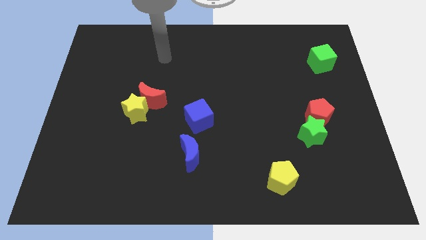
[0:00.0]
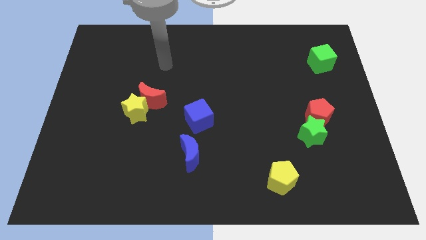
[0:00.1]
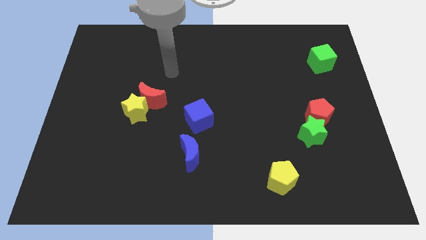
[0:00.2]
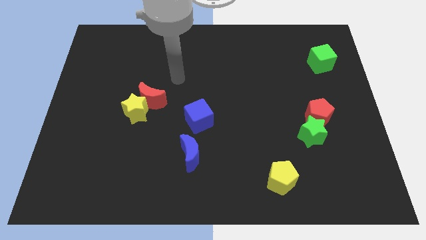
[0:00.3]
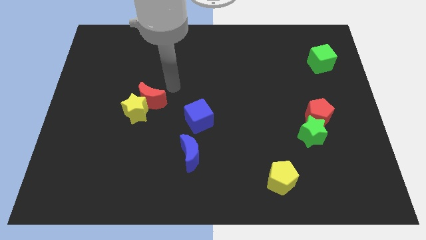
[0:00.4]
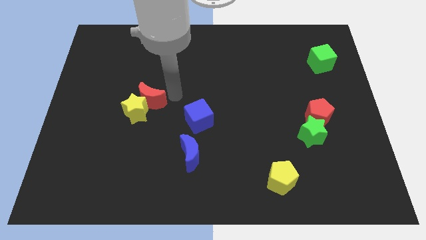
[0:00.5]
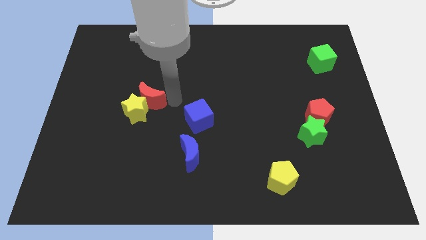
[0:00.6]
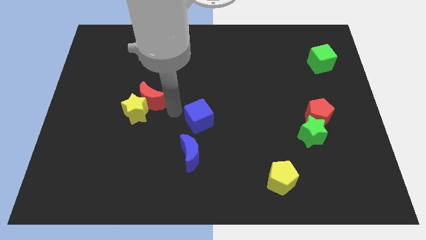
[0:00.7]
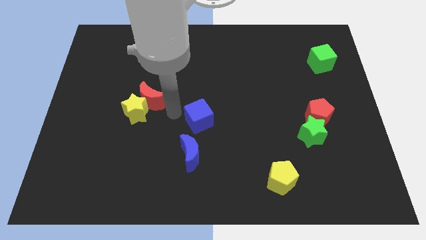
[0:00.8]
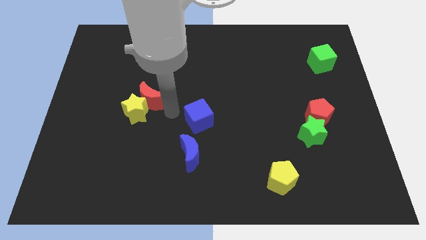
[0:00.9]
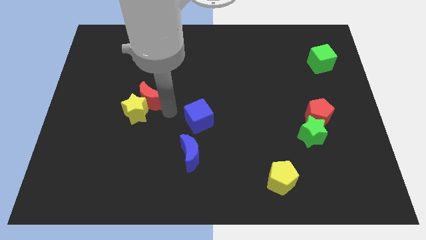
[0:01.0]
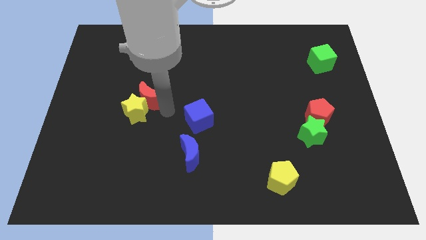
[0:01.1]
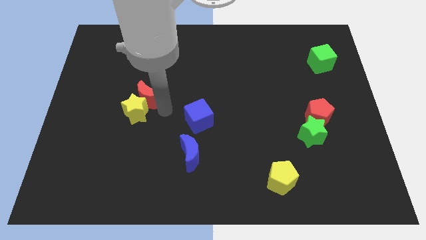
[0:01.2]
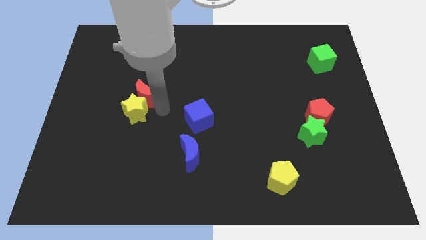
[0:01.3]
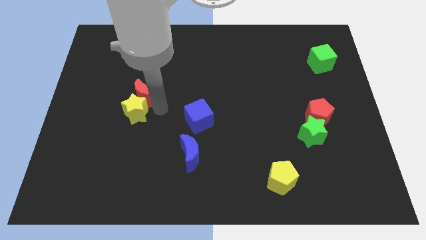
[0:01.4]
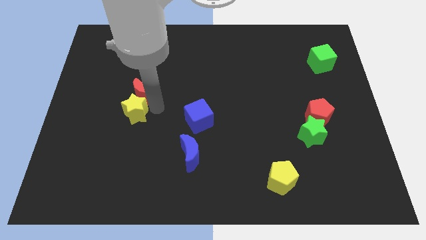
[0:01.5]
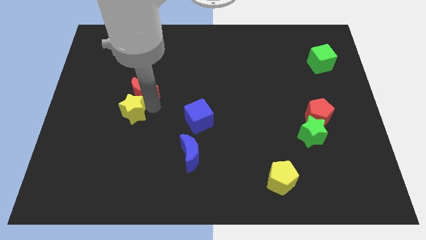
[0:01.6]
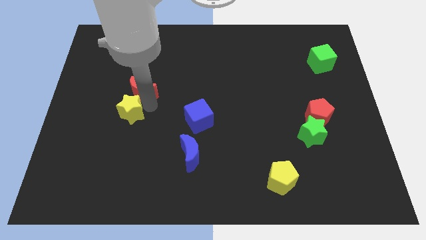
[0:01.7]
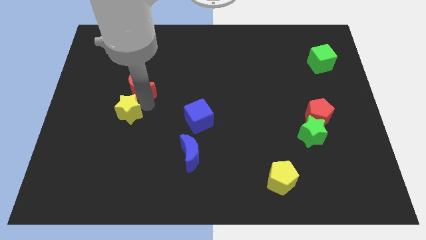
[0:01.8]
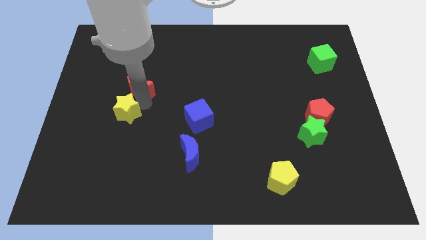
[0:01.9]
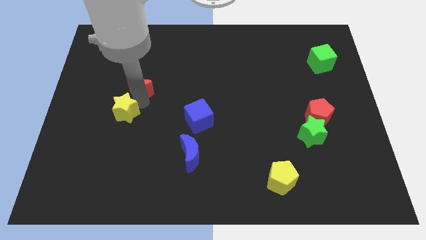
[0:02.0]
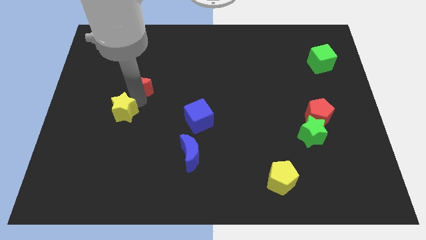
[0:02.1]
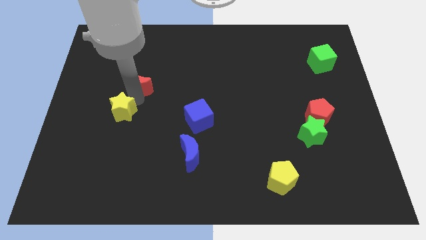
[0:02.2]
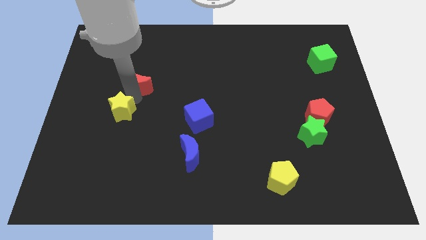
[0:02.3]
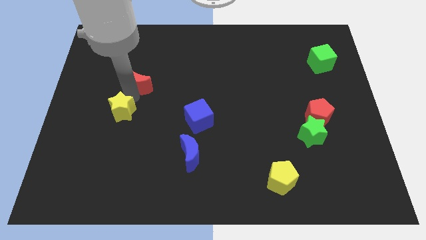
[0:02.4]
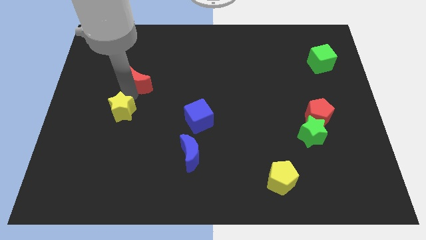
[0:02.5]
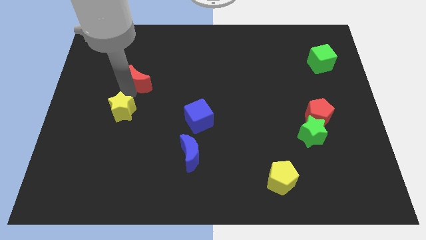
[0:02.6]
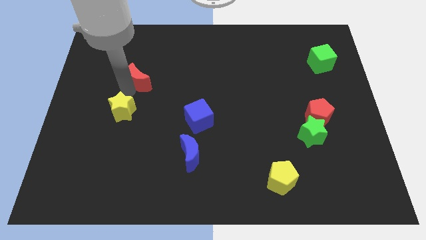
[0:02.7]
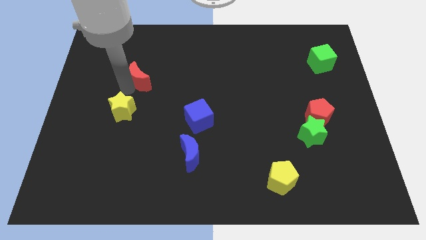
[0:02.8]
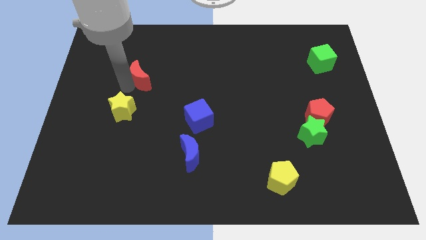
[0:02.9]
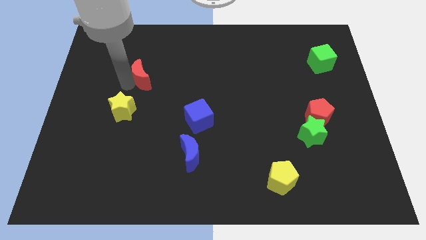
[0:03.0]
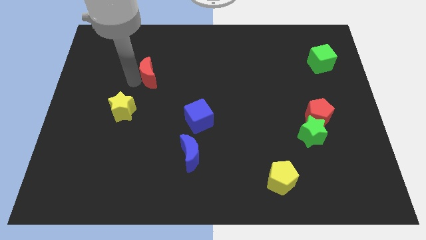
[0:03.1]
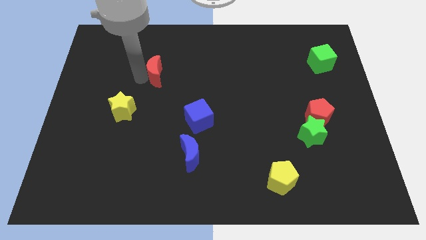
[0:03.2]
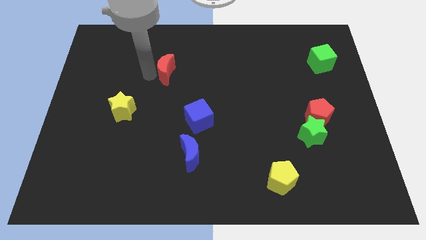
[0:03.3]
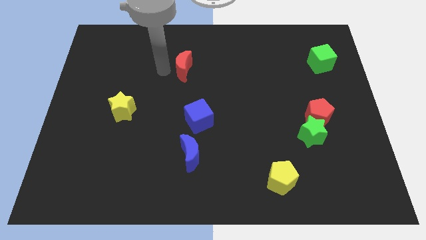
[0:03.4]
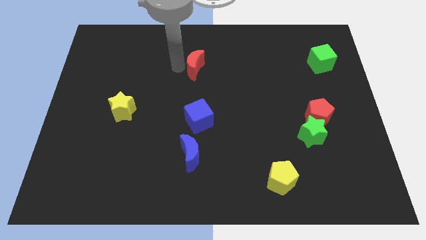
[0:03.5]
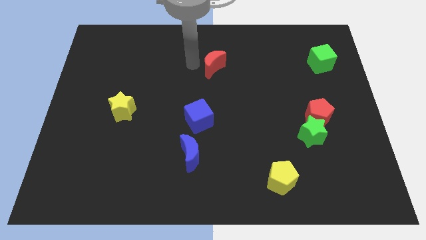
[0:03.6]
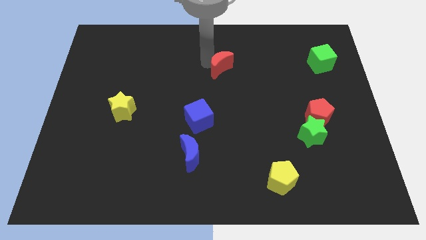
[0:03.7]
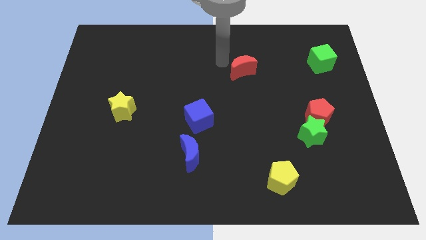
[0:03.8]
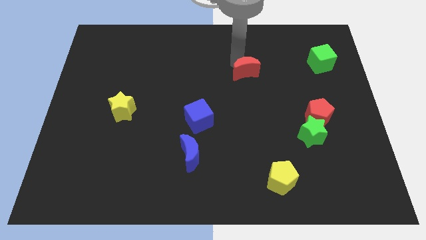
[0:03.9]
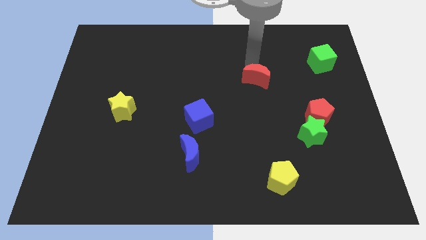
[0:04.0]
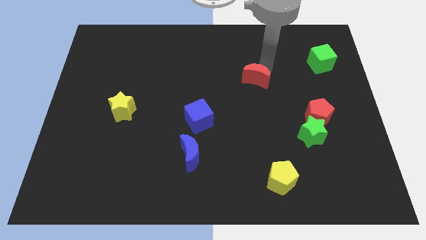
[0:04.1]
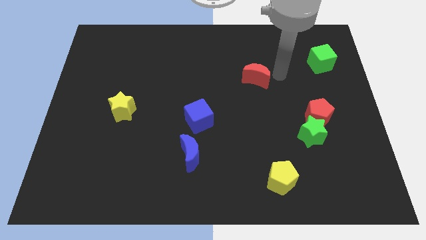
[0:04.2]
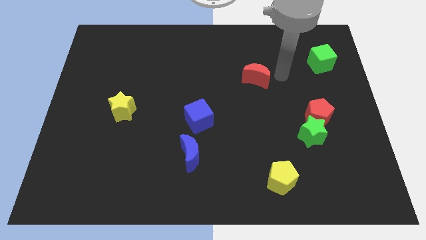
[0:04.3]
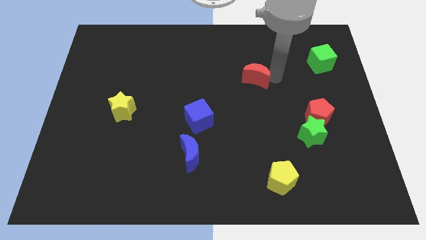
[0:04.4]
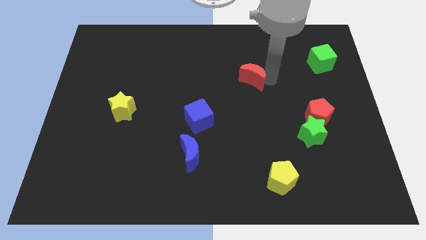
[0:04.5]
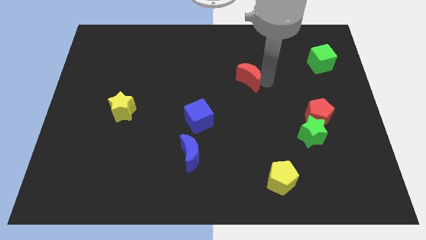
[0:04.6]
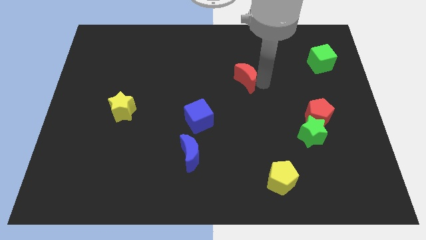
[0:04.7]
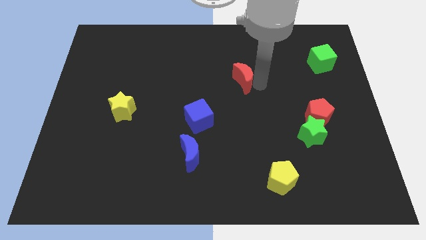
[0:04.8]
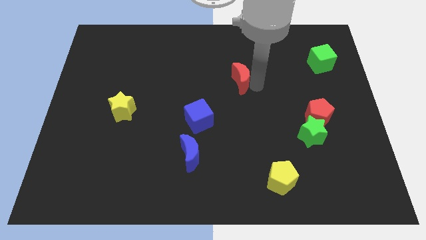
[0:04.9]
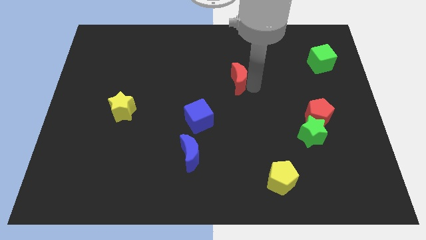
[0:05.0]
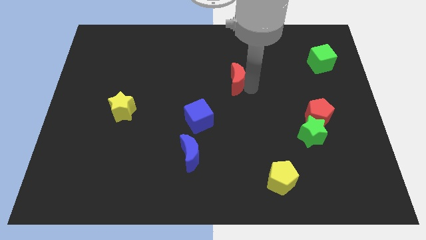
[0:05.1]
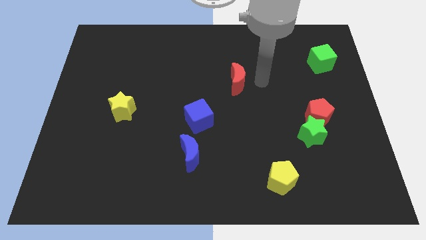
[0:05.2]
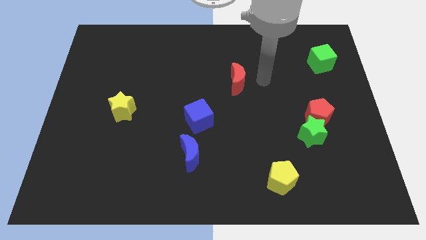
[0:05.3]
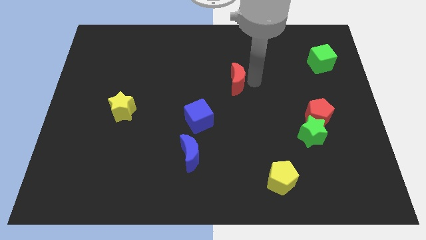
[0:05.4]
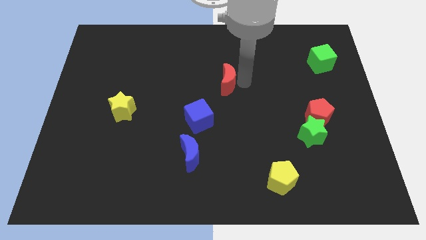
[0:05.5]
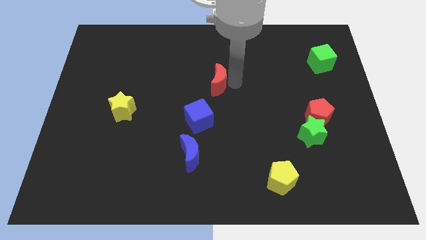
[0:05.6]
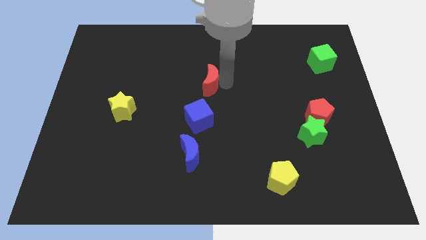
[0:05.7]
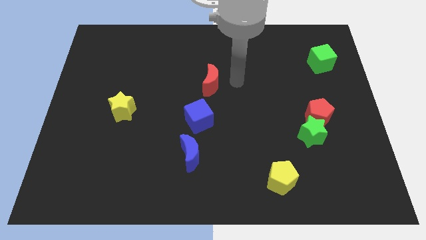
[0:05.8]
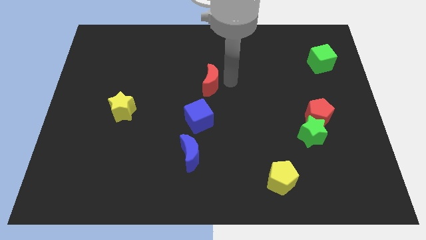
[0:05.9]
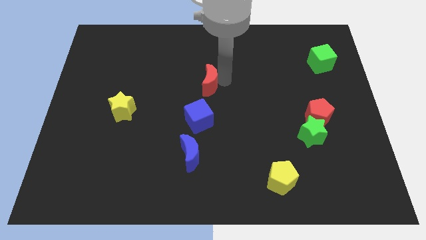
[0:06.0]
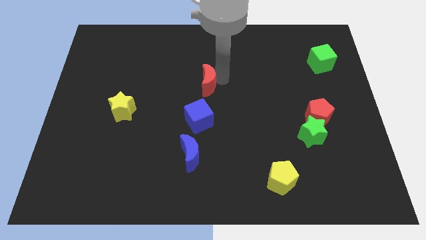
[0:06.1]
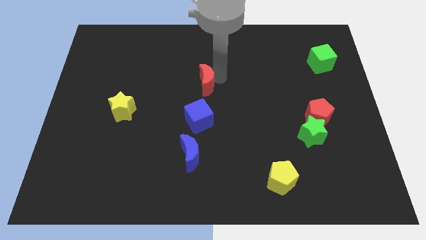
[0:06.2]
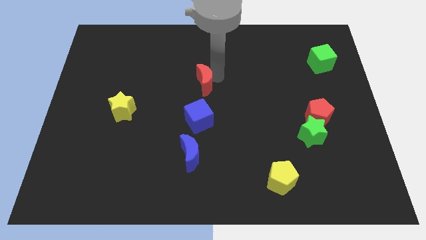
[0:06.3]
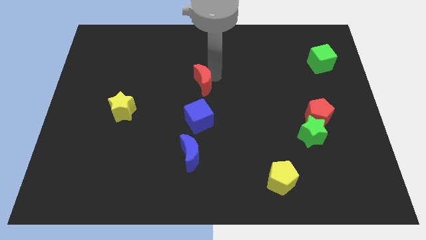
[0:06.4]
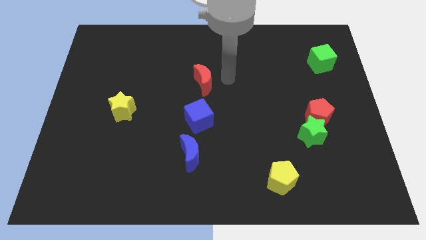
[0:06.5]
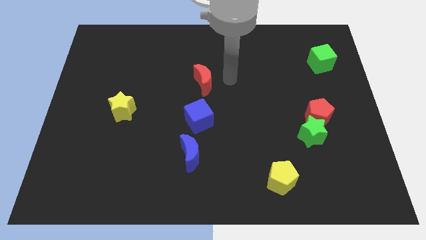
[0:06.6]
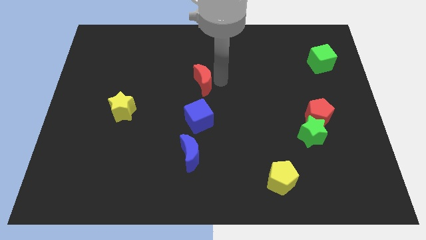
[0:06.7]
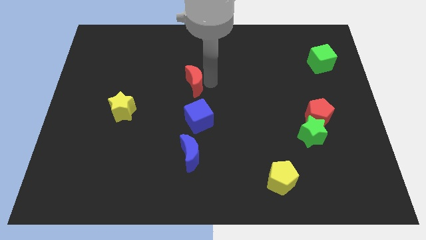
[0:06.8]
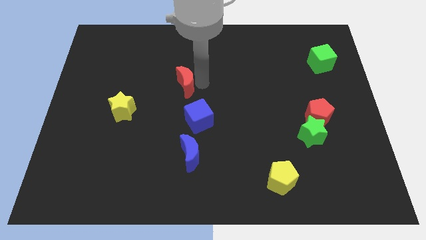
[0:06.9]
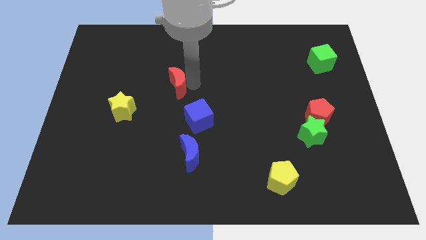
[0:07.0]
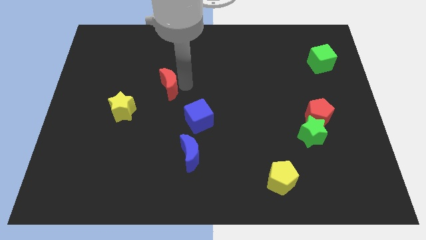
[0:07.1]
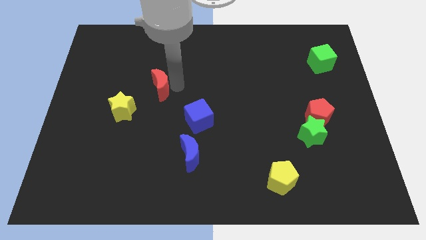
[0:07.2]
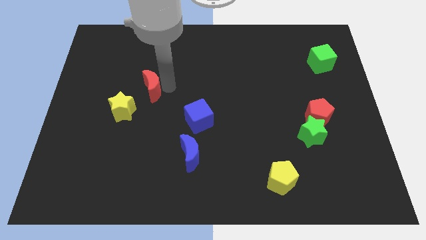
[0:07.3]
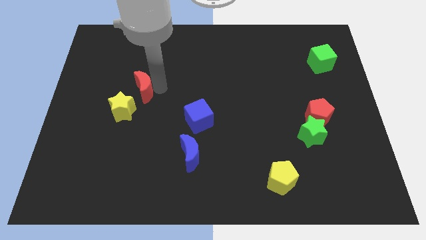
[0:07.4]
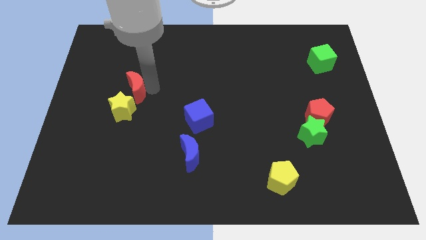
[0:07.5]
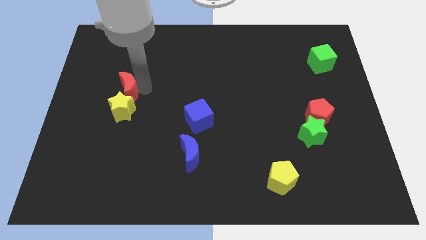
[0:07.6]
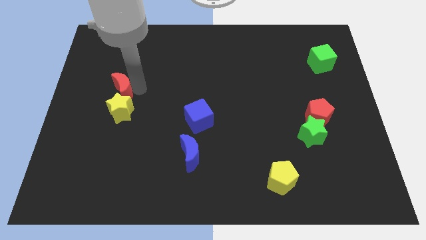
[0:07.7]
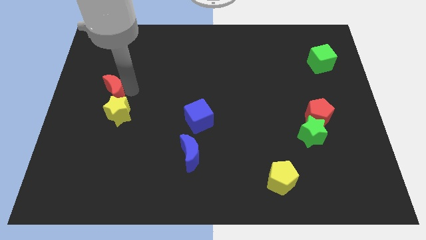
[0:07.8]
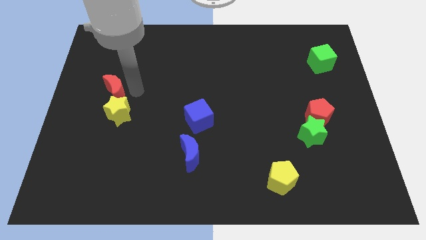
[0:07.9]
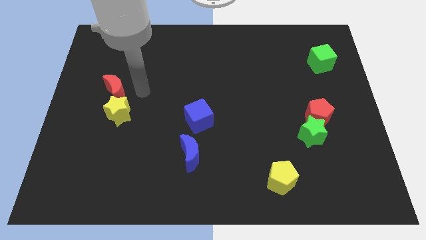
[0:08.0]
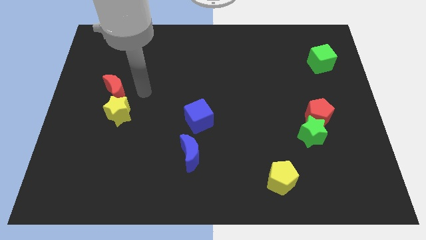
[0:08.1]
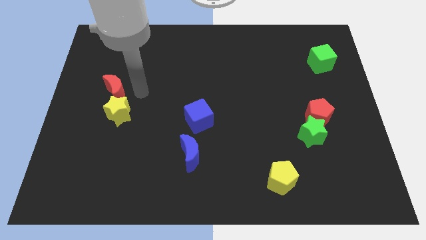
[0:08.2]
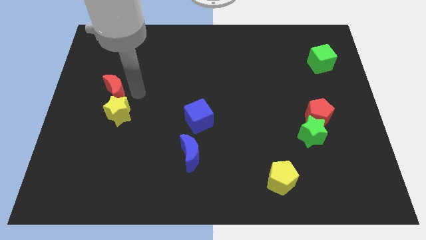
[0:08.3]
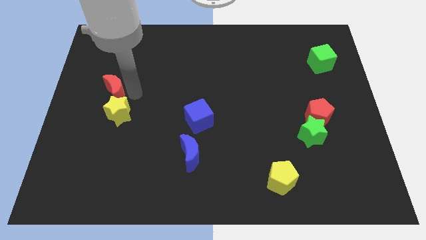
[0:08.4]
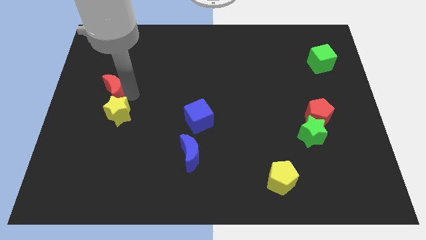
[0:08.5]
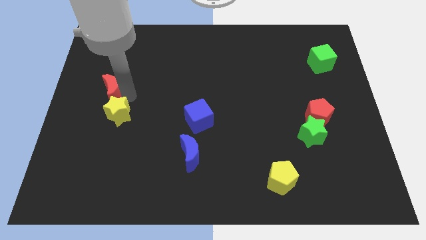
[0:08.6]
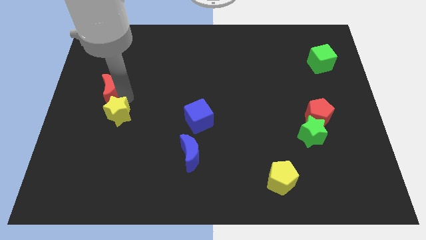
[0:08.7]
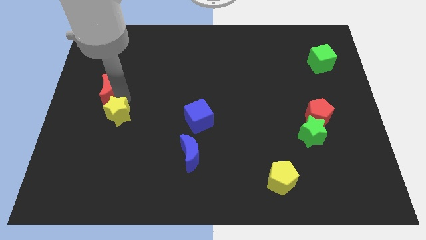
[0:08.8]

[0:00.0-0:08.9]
put the red moon to the center left
